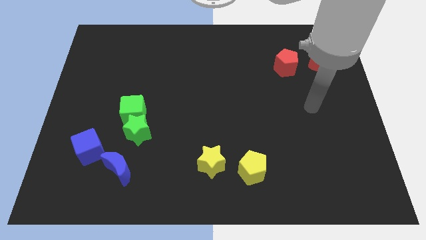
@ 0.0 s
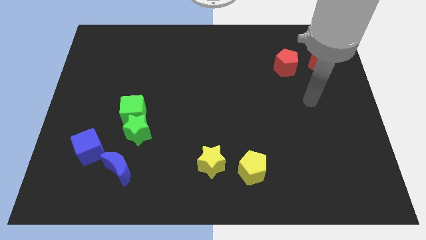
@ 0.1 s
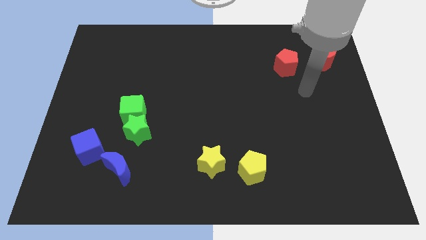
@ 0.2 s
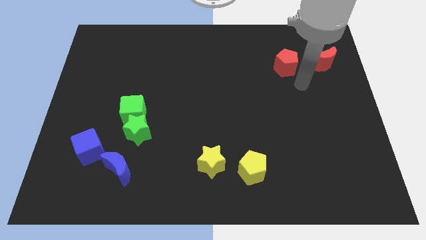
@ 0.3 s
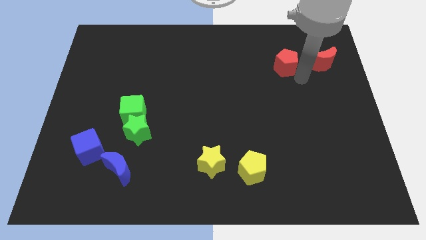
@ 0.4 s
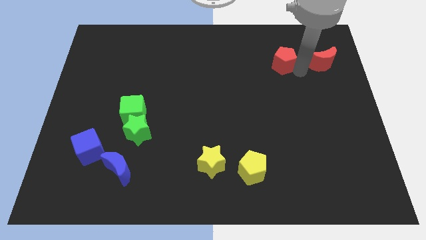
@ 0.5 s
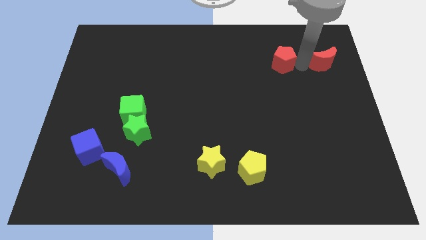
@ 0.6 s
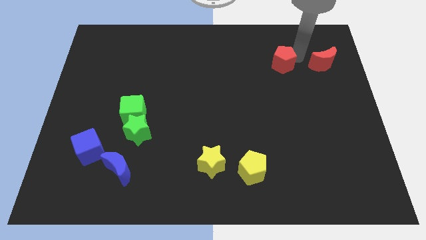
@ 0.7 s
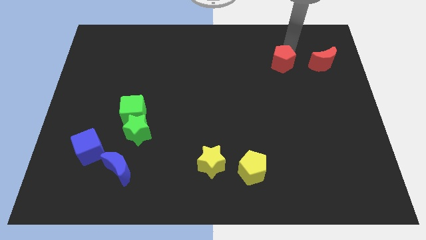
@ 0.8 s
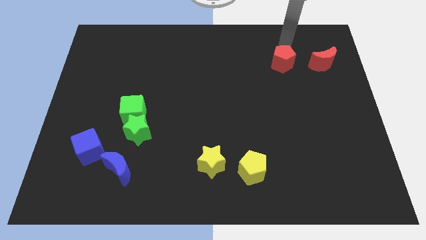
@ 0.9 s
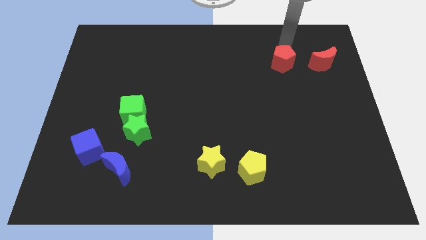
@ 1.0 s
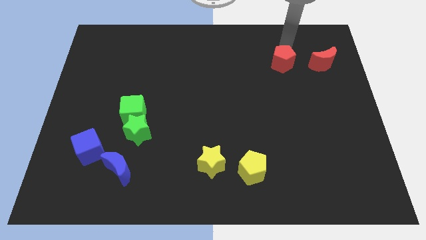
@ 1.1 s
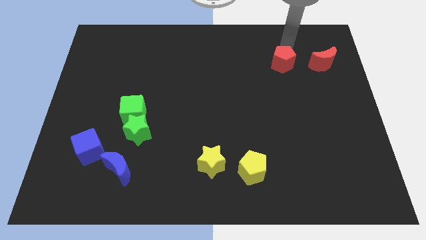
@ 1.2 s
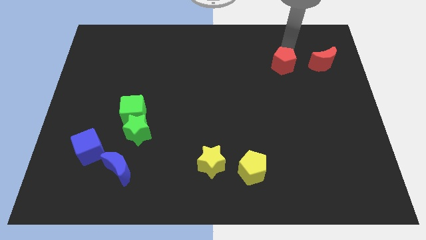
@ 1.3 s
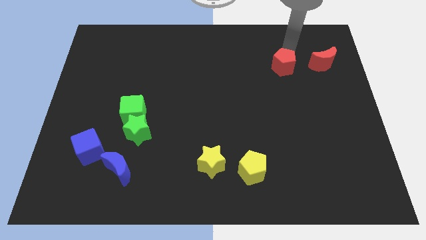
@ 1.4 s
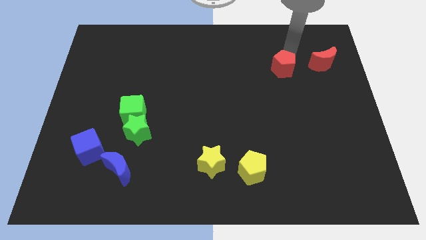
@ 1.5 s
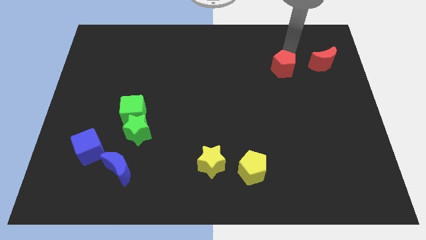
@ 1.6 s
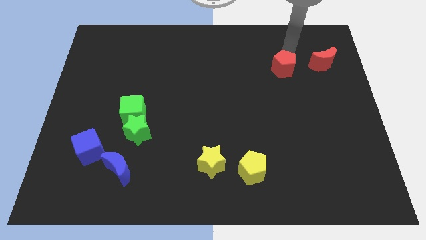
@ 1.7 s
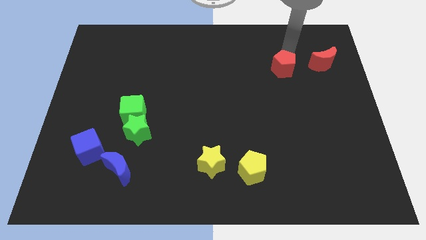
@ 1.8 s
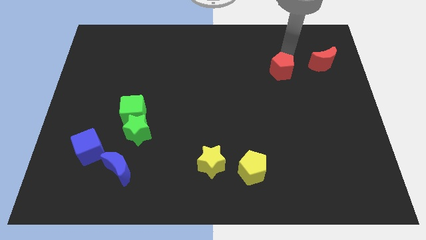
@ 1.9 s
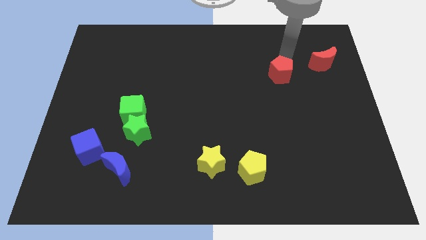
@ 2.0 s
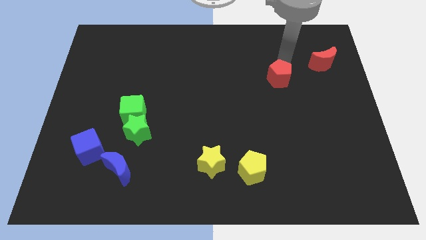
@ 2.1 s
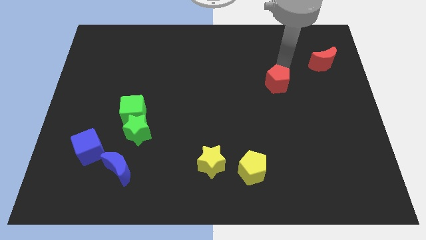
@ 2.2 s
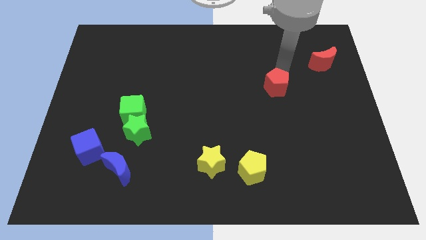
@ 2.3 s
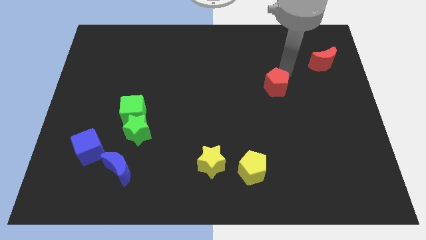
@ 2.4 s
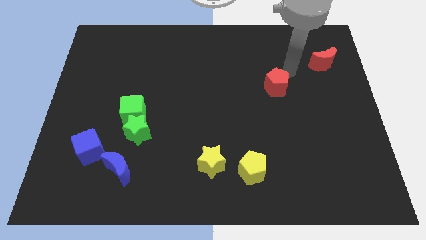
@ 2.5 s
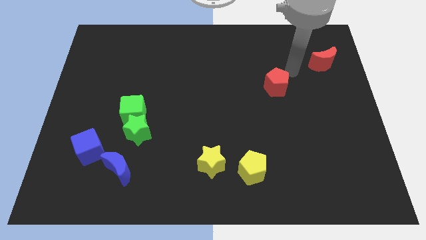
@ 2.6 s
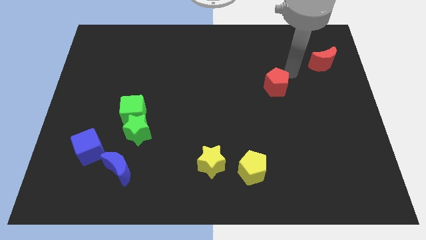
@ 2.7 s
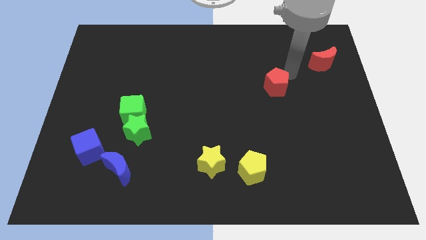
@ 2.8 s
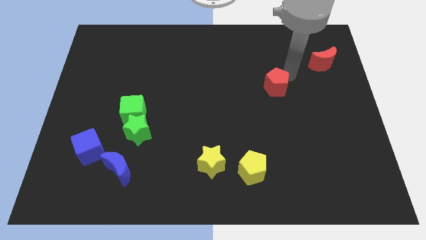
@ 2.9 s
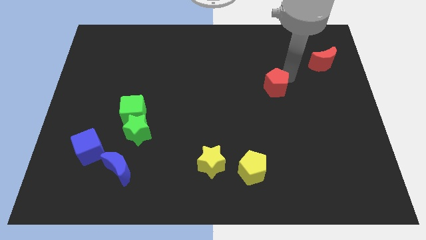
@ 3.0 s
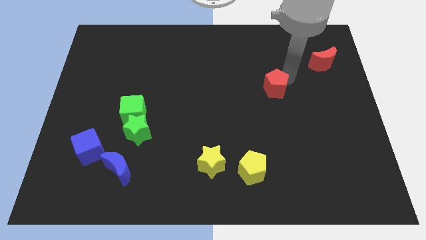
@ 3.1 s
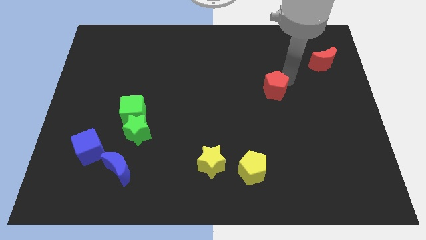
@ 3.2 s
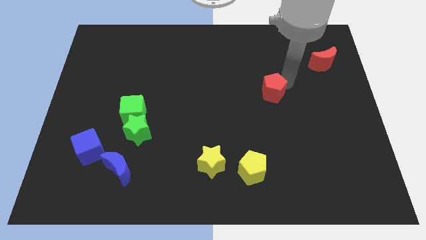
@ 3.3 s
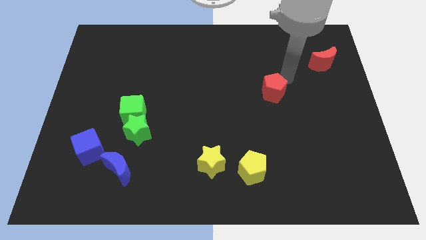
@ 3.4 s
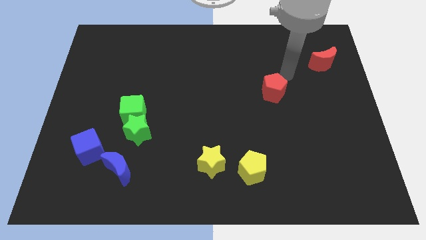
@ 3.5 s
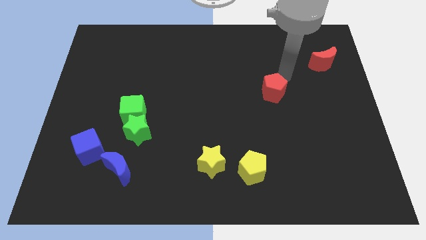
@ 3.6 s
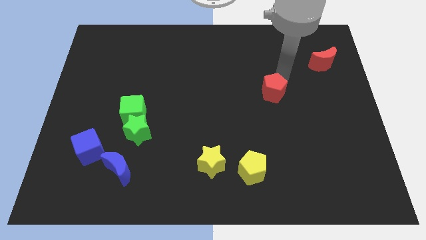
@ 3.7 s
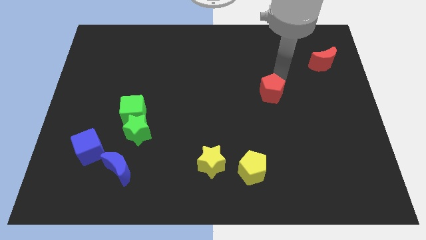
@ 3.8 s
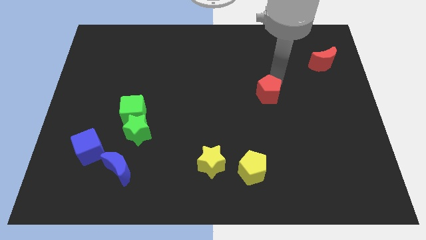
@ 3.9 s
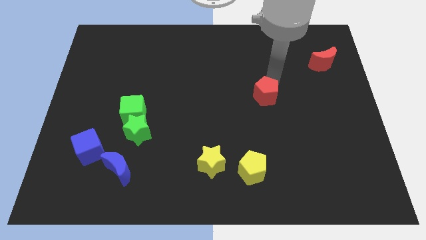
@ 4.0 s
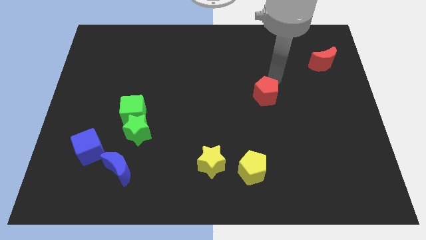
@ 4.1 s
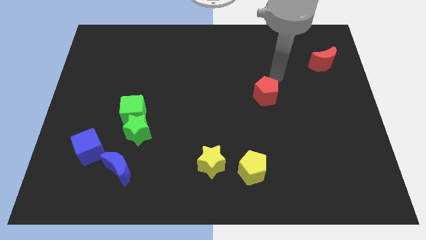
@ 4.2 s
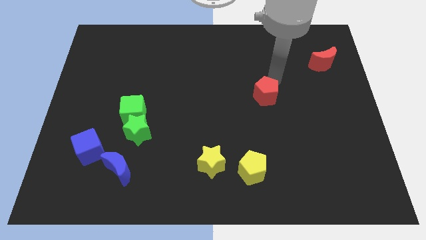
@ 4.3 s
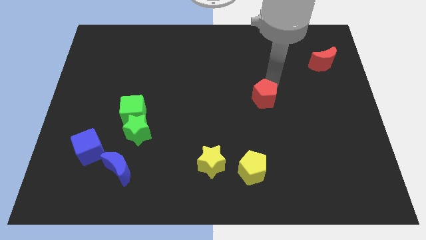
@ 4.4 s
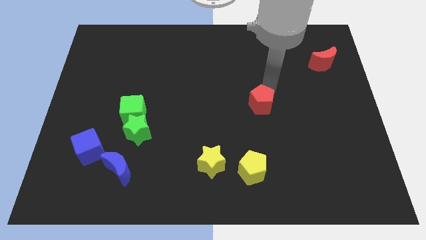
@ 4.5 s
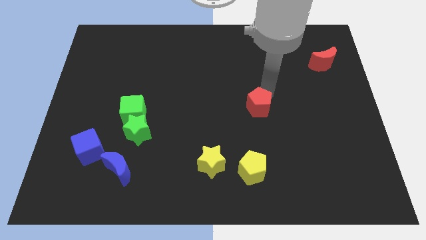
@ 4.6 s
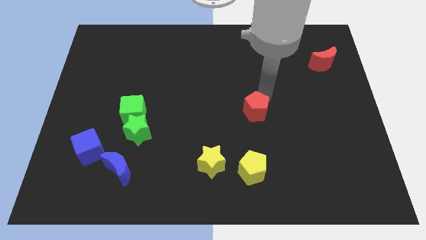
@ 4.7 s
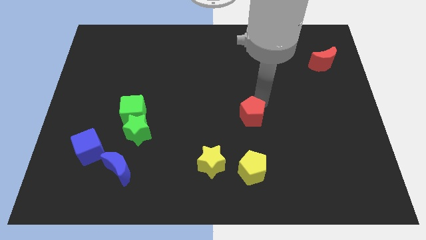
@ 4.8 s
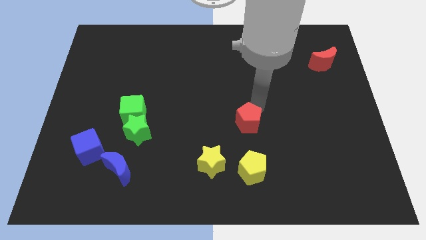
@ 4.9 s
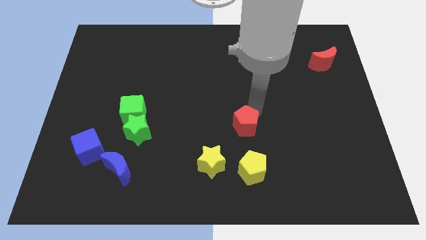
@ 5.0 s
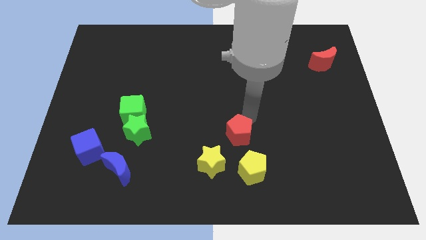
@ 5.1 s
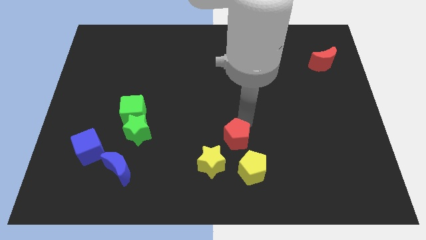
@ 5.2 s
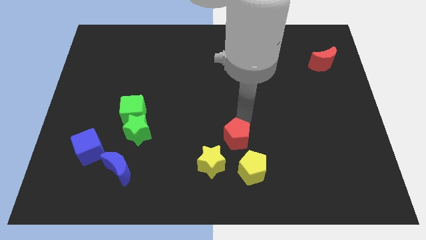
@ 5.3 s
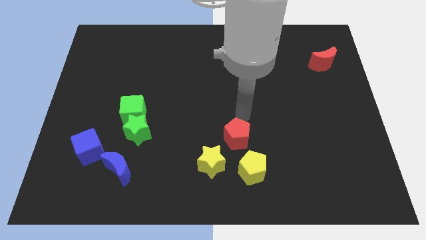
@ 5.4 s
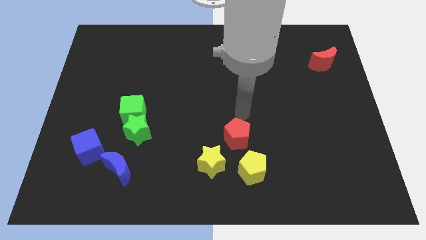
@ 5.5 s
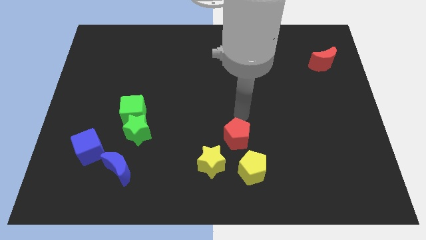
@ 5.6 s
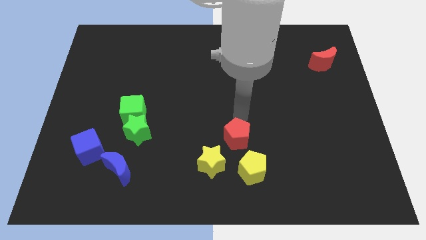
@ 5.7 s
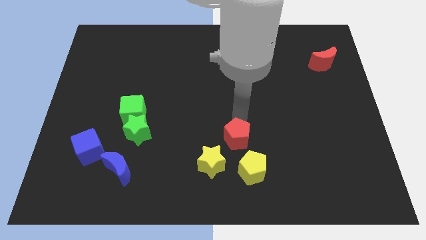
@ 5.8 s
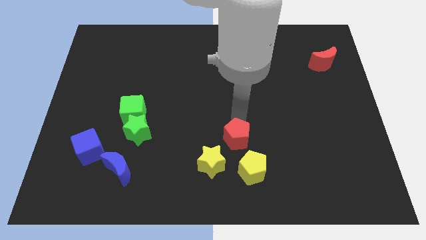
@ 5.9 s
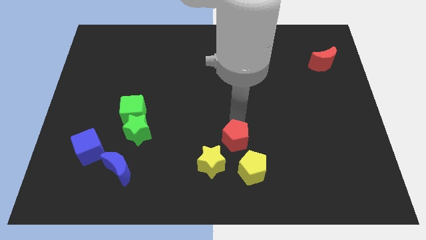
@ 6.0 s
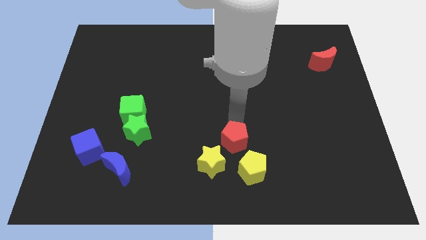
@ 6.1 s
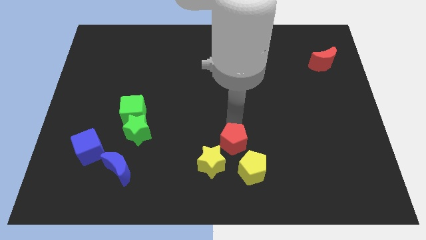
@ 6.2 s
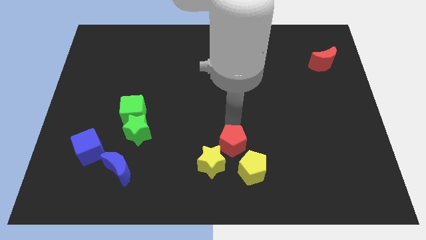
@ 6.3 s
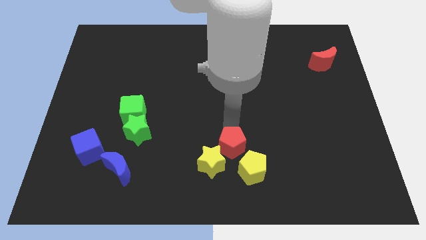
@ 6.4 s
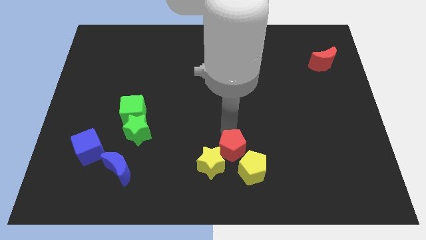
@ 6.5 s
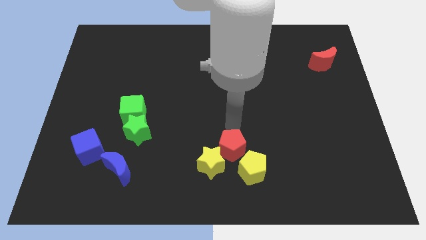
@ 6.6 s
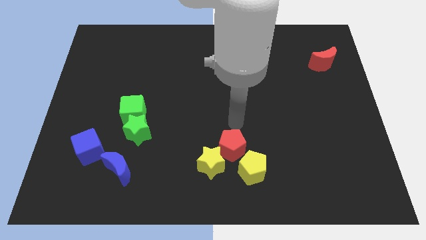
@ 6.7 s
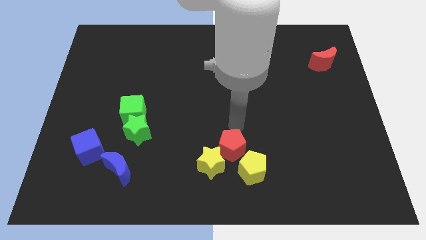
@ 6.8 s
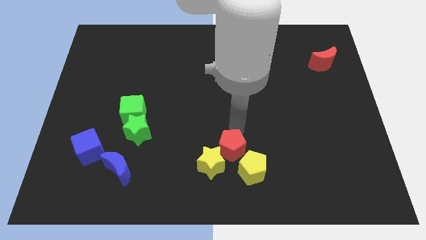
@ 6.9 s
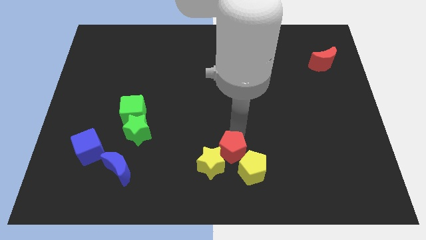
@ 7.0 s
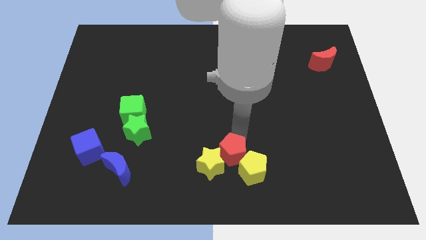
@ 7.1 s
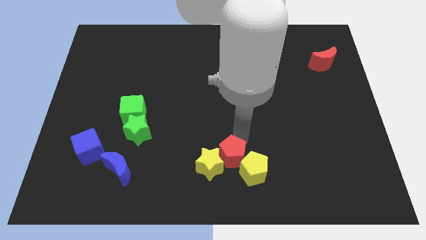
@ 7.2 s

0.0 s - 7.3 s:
slide the red pentagon to the bottom
